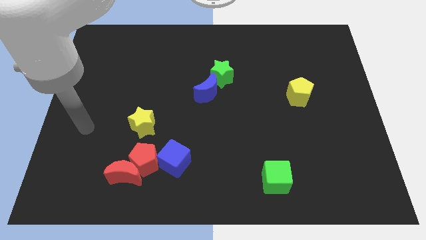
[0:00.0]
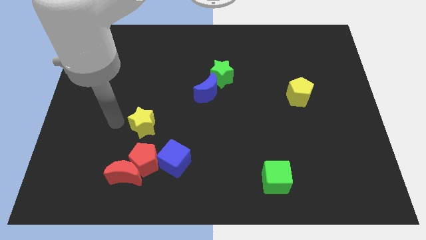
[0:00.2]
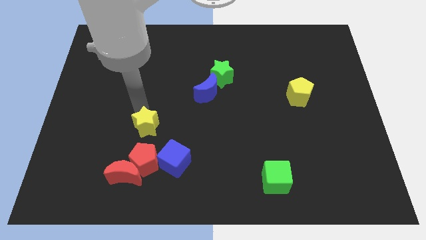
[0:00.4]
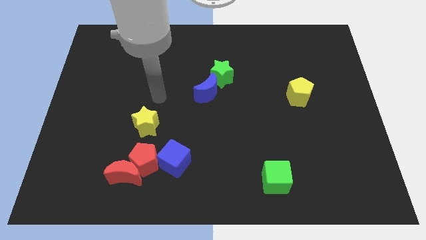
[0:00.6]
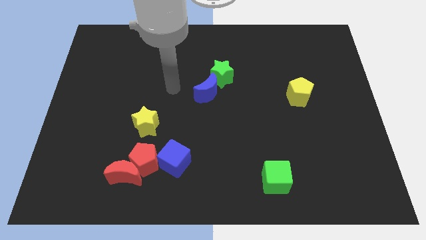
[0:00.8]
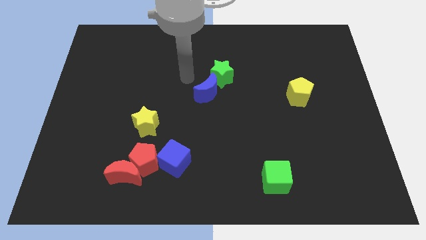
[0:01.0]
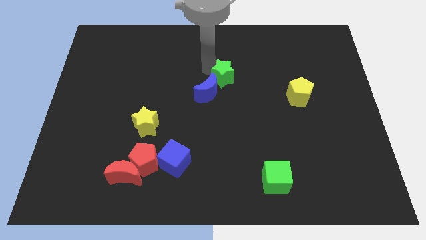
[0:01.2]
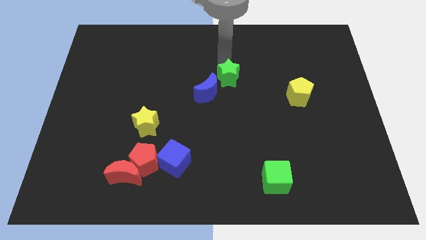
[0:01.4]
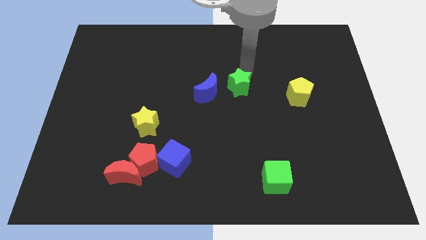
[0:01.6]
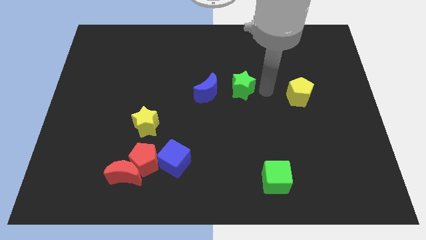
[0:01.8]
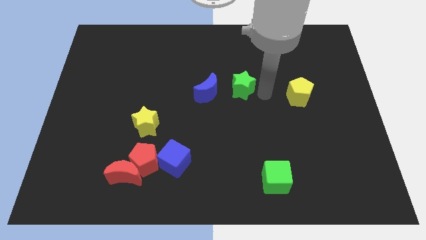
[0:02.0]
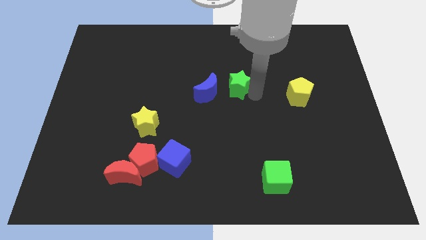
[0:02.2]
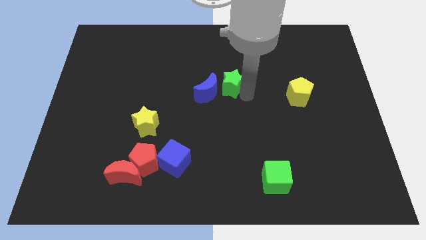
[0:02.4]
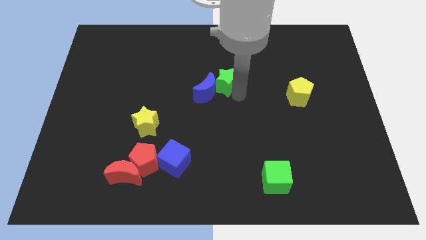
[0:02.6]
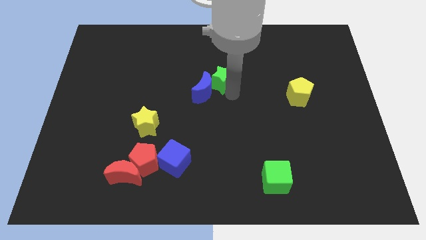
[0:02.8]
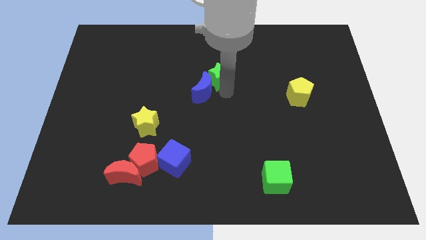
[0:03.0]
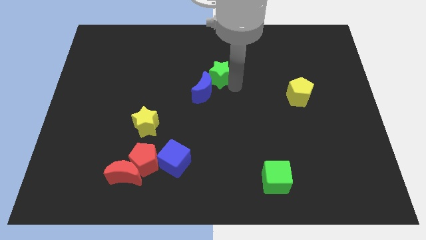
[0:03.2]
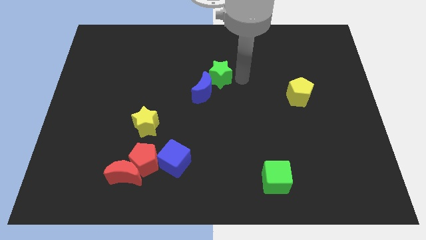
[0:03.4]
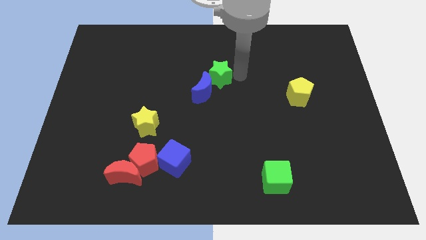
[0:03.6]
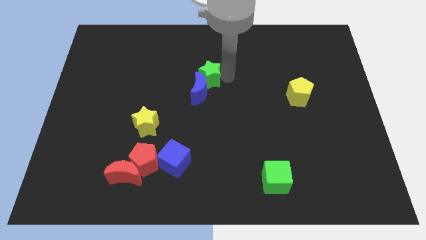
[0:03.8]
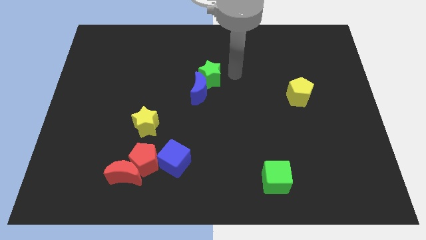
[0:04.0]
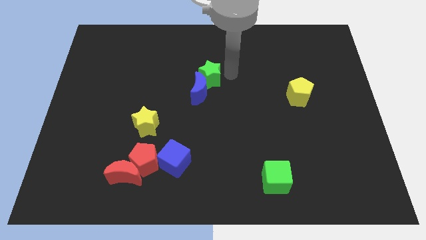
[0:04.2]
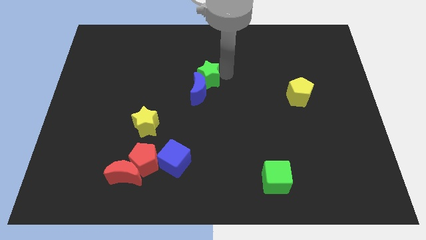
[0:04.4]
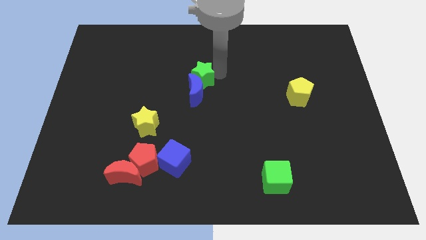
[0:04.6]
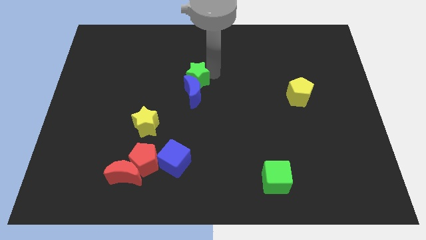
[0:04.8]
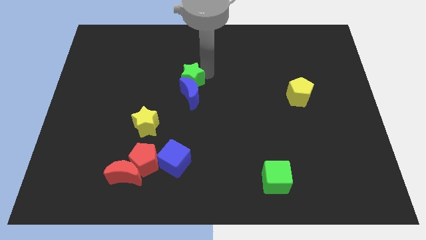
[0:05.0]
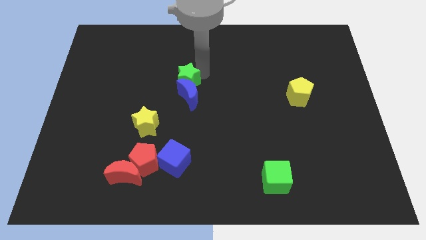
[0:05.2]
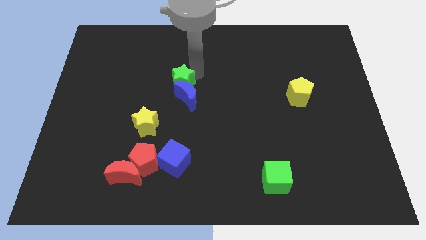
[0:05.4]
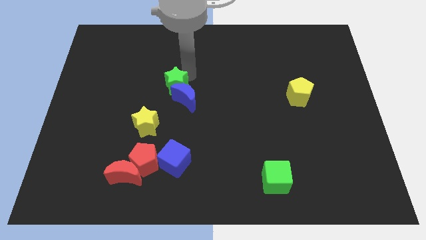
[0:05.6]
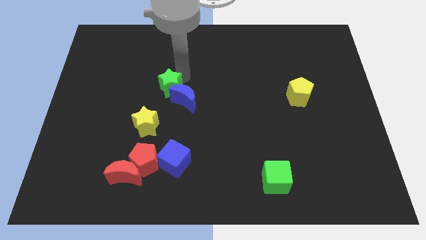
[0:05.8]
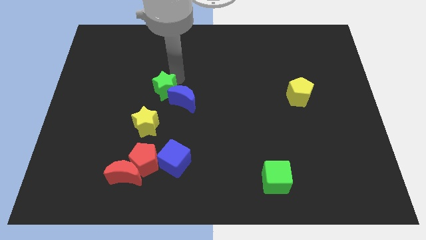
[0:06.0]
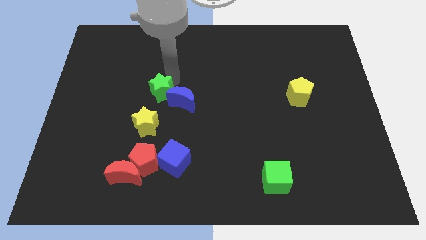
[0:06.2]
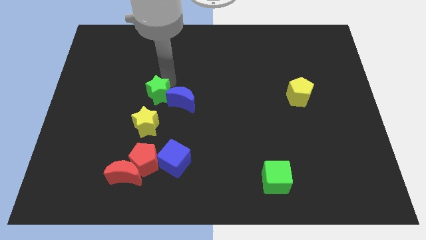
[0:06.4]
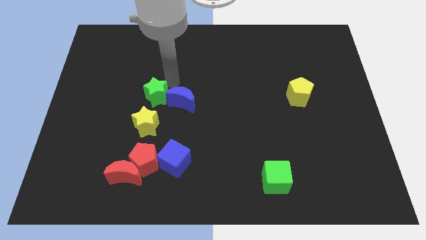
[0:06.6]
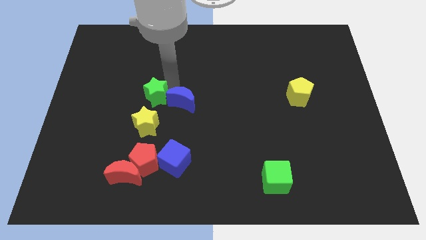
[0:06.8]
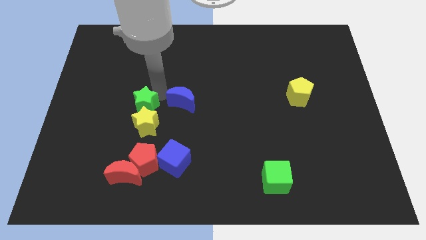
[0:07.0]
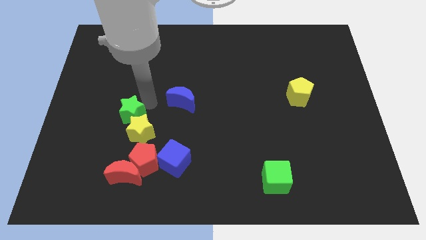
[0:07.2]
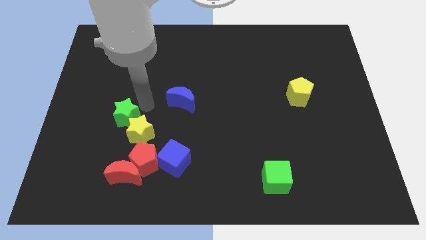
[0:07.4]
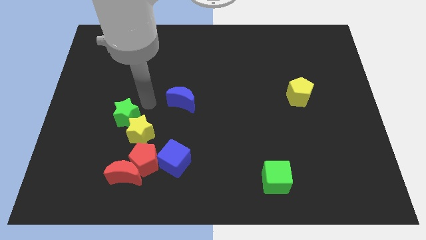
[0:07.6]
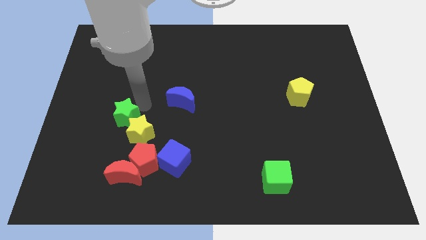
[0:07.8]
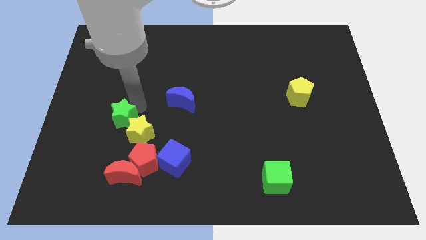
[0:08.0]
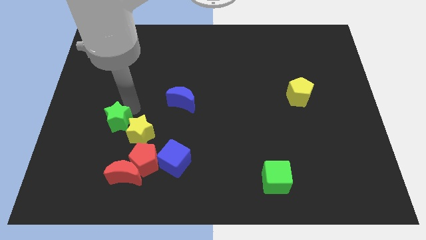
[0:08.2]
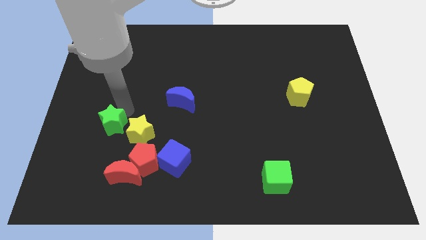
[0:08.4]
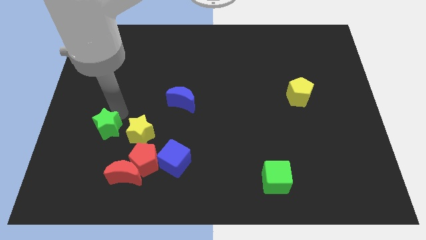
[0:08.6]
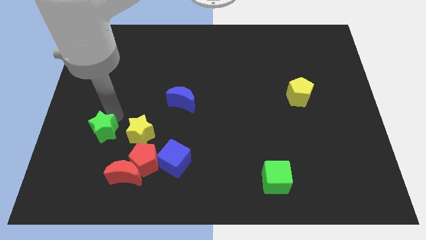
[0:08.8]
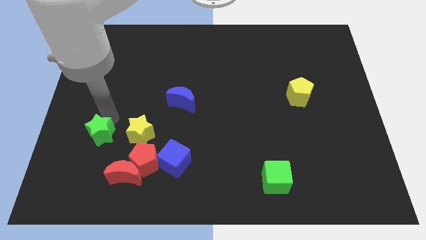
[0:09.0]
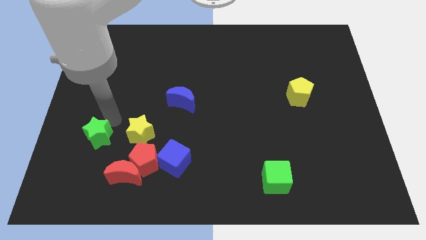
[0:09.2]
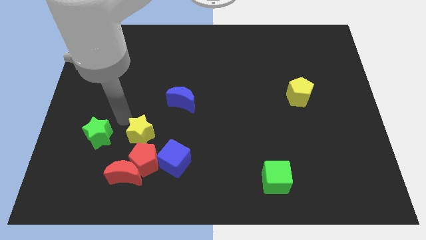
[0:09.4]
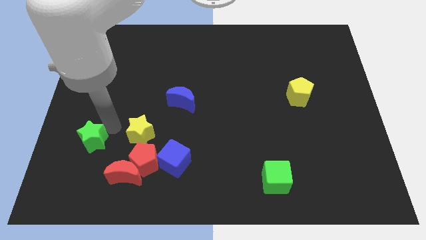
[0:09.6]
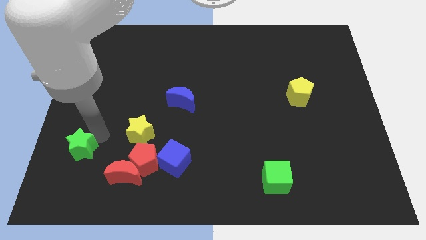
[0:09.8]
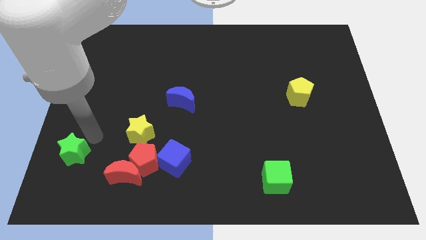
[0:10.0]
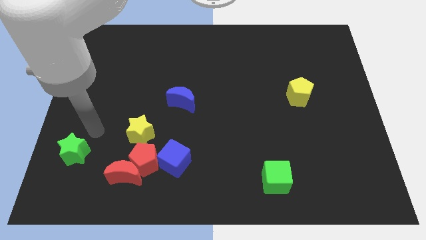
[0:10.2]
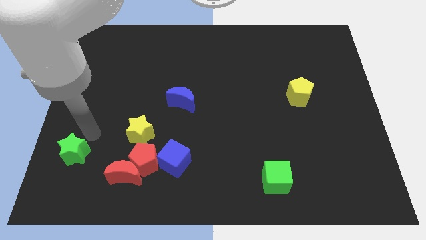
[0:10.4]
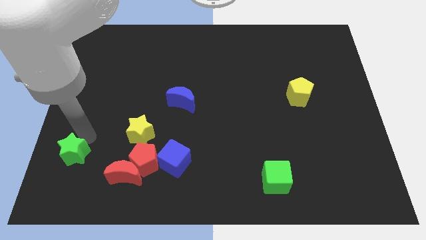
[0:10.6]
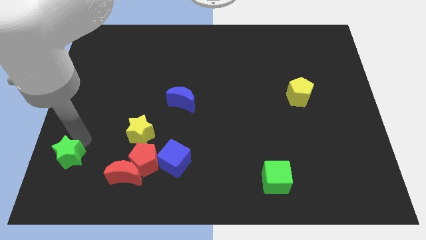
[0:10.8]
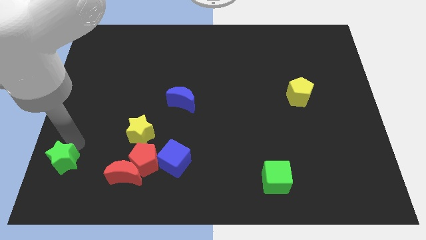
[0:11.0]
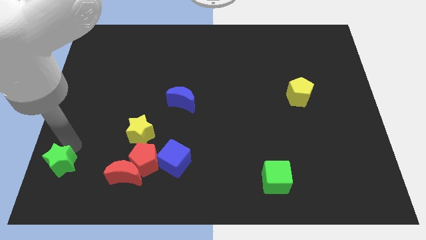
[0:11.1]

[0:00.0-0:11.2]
push the green star to the bottom left of the board

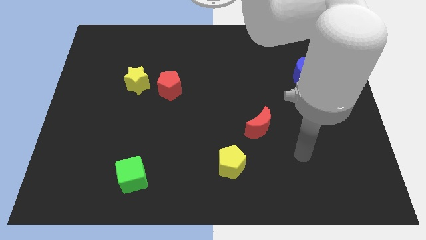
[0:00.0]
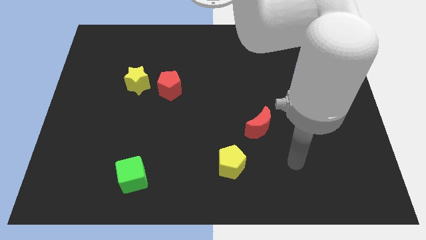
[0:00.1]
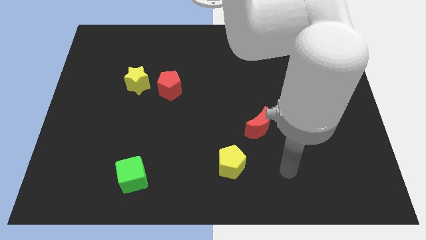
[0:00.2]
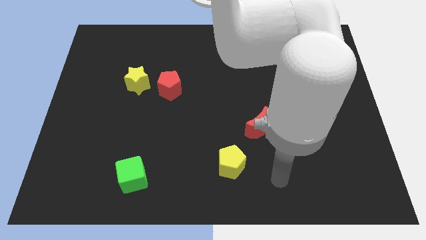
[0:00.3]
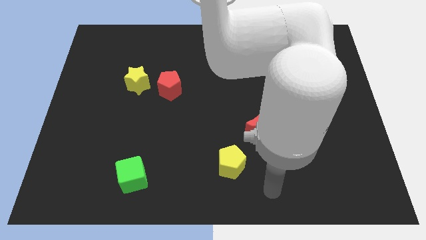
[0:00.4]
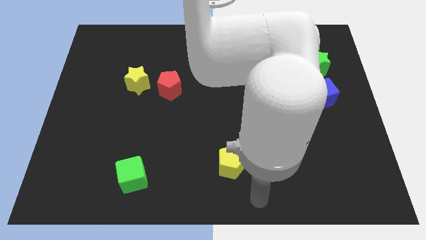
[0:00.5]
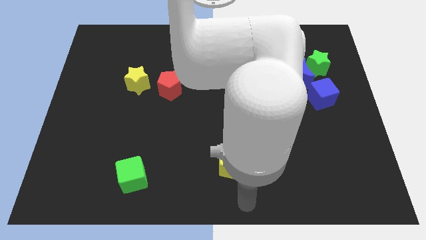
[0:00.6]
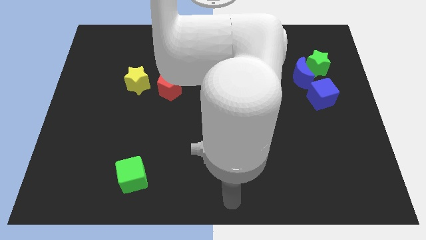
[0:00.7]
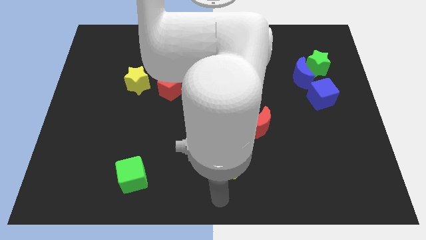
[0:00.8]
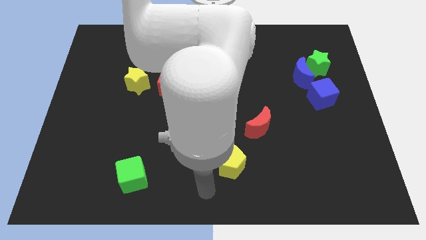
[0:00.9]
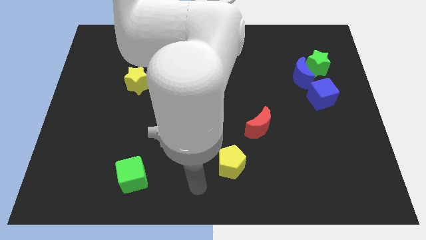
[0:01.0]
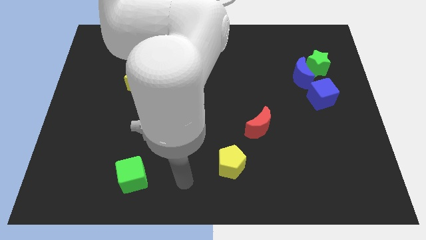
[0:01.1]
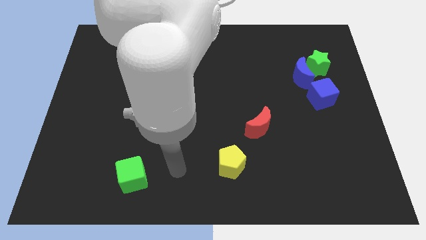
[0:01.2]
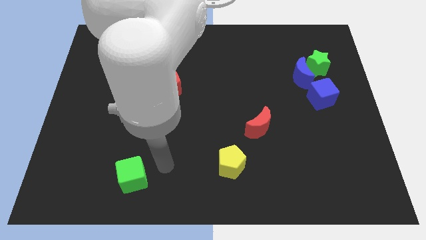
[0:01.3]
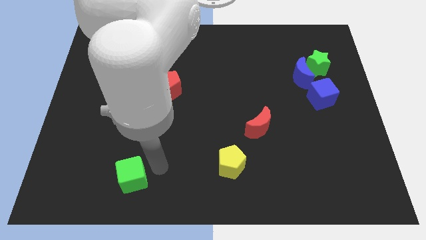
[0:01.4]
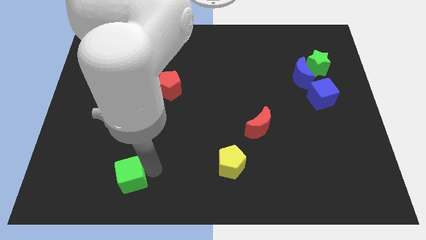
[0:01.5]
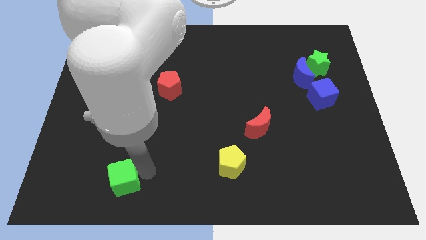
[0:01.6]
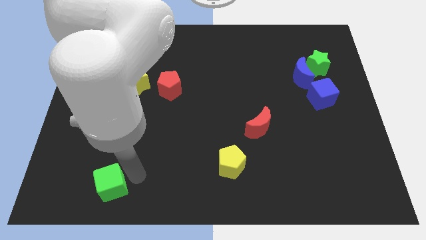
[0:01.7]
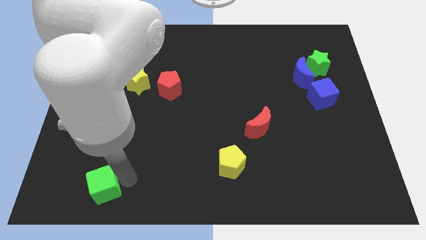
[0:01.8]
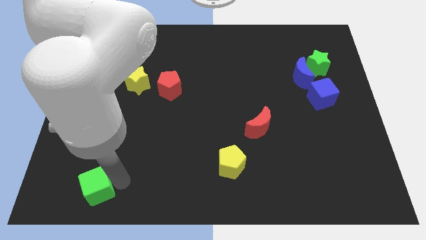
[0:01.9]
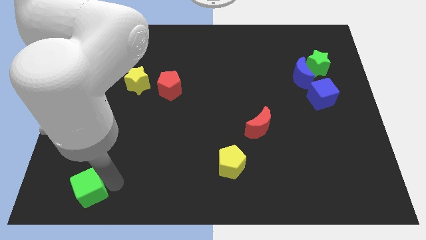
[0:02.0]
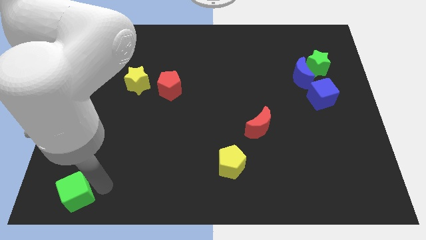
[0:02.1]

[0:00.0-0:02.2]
push the green cube to the bottom left corner
